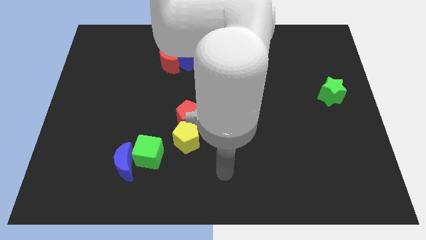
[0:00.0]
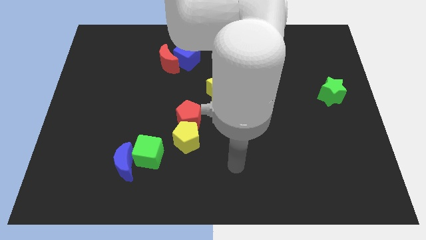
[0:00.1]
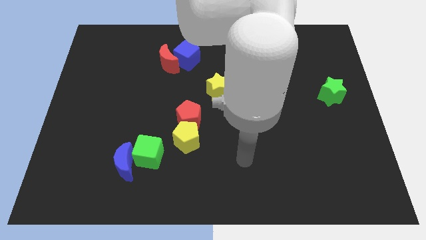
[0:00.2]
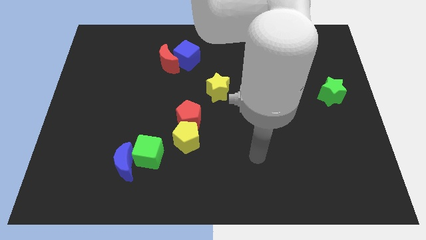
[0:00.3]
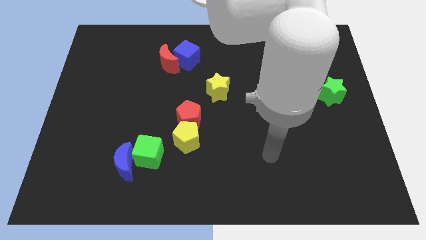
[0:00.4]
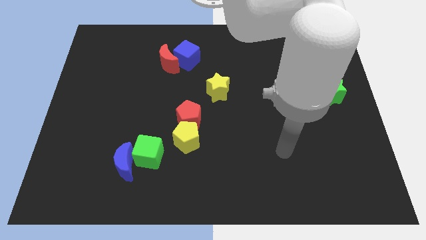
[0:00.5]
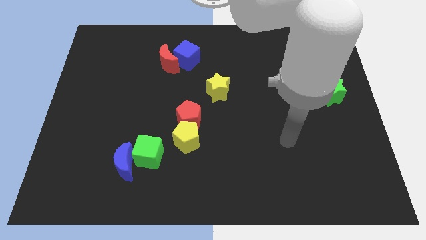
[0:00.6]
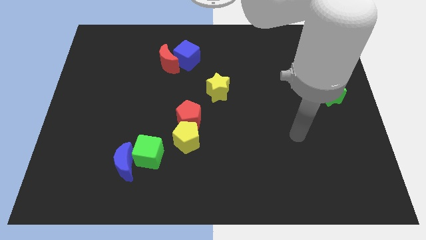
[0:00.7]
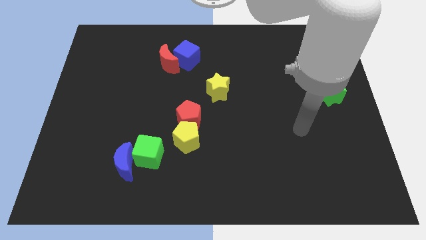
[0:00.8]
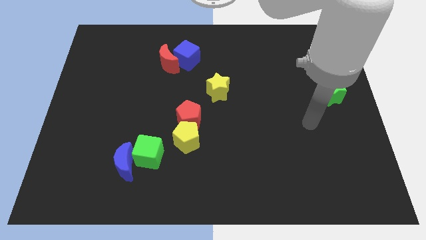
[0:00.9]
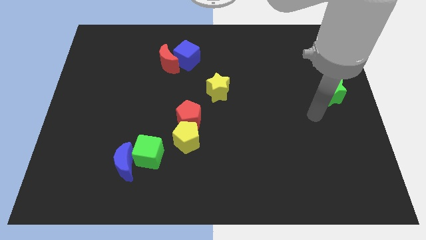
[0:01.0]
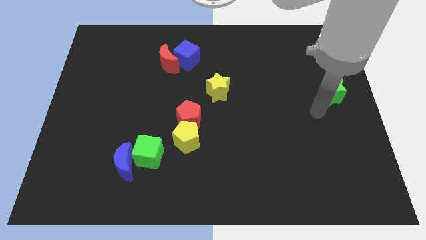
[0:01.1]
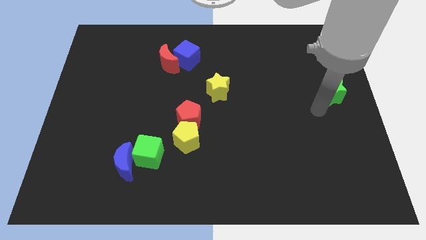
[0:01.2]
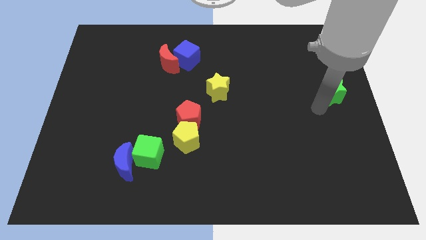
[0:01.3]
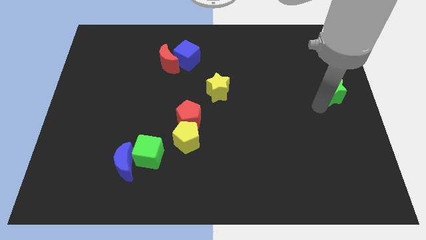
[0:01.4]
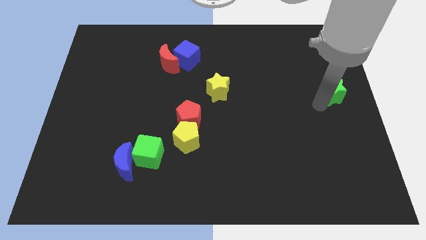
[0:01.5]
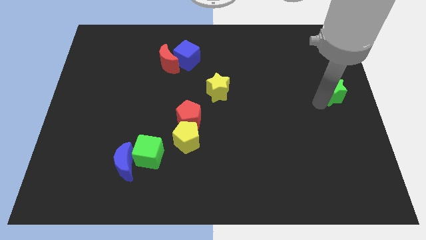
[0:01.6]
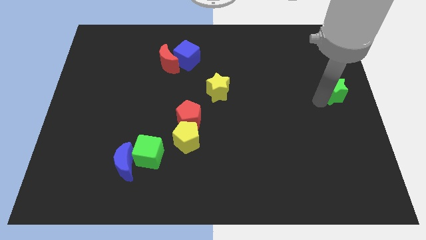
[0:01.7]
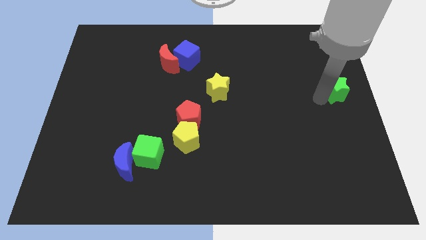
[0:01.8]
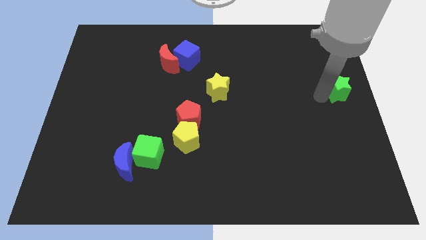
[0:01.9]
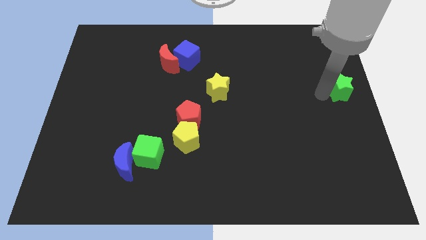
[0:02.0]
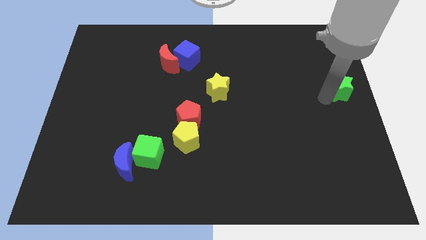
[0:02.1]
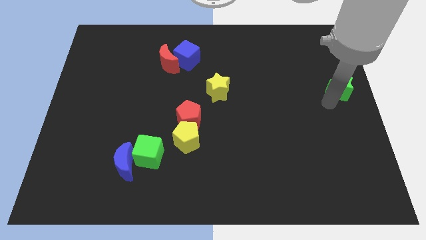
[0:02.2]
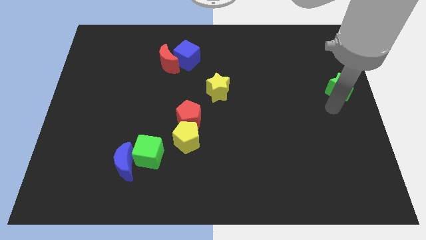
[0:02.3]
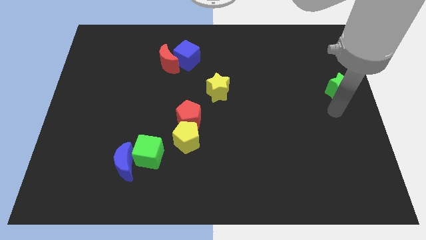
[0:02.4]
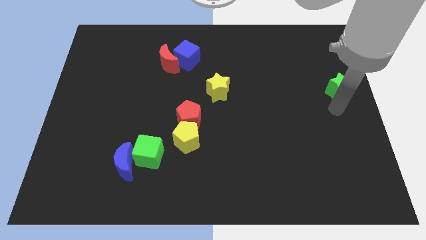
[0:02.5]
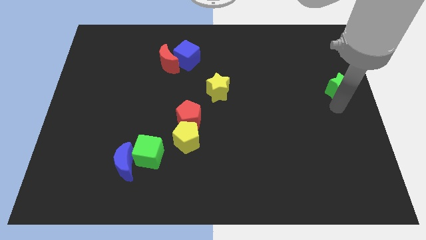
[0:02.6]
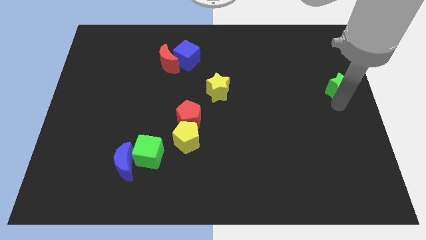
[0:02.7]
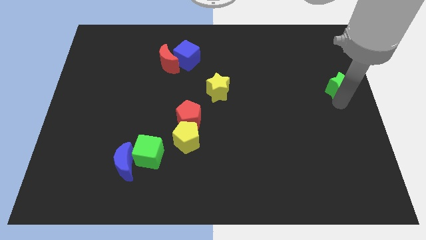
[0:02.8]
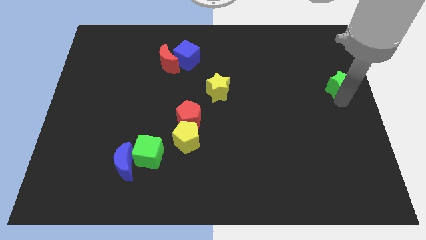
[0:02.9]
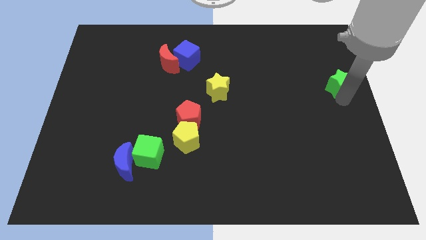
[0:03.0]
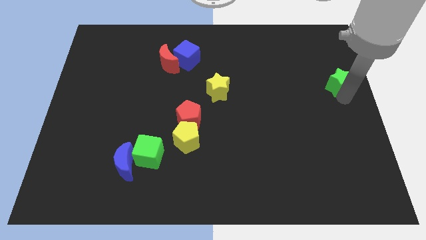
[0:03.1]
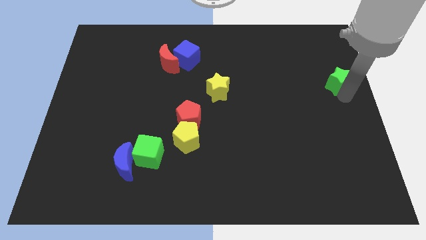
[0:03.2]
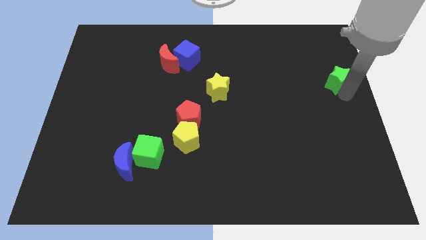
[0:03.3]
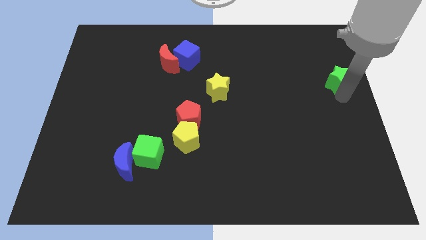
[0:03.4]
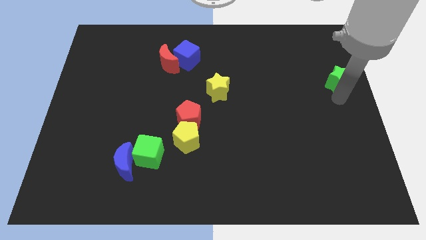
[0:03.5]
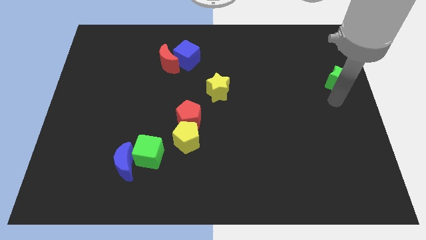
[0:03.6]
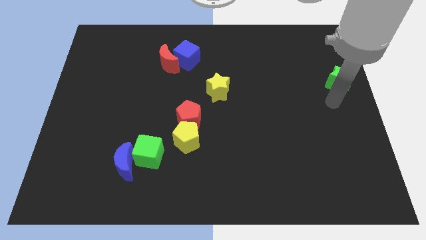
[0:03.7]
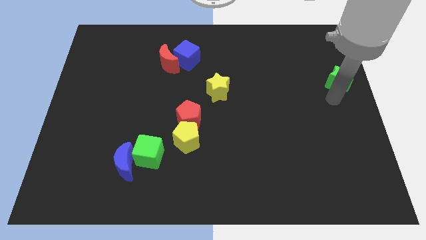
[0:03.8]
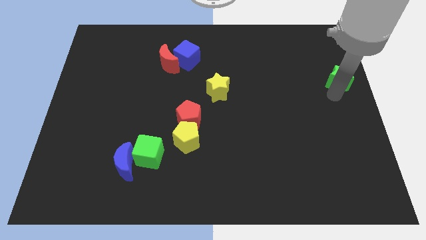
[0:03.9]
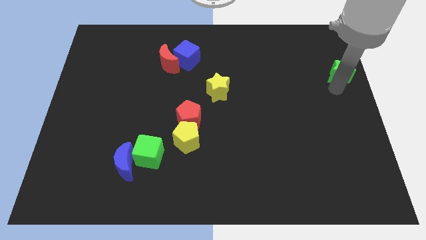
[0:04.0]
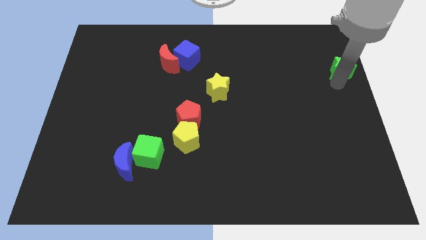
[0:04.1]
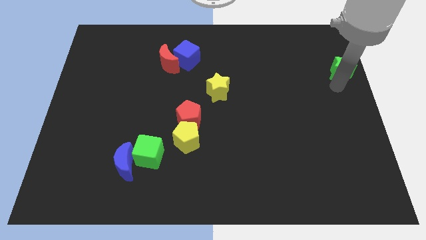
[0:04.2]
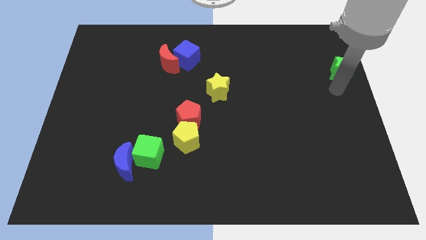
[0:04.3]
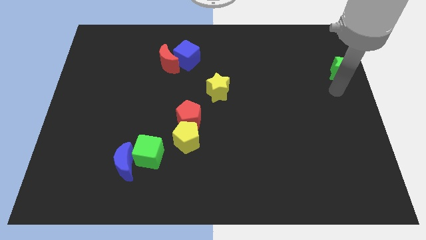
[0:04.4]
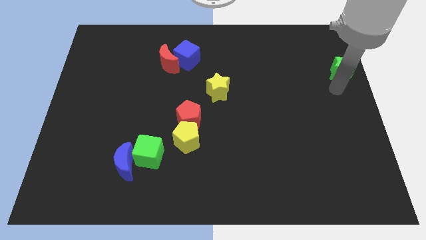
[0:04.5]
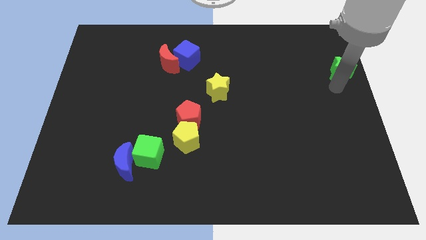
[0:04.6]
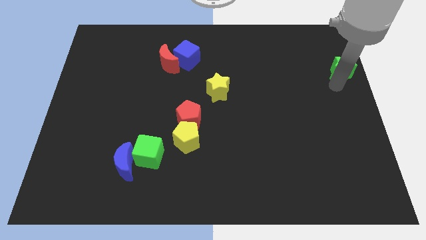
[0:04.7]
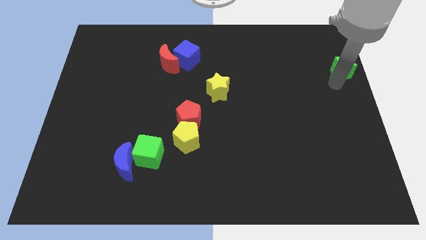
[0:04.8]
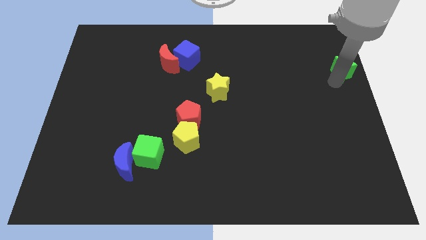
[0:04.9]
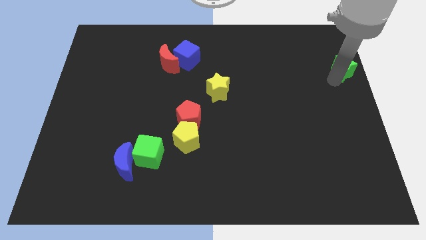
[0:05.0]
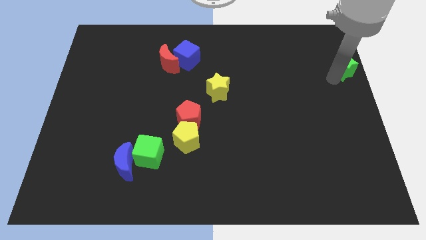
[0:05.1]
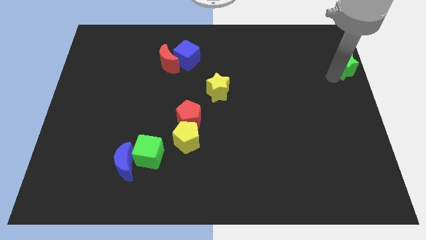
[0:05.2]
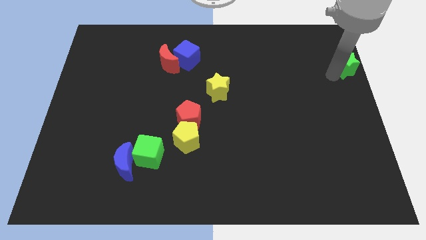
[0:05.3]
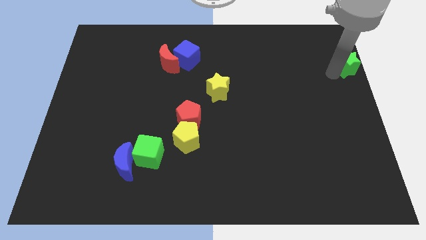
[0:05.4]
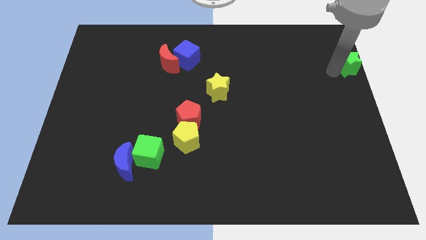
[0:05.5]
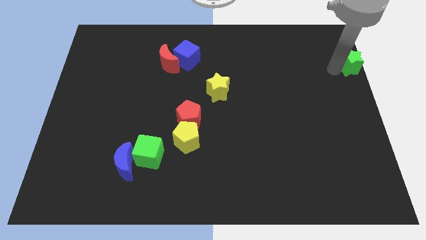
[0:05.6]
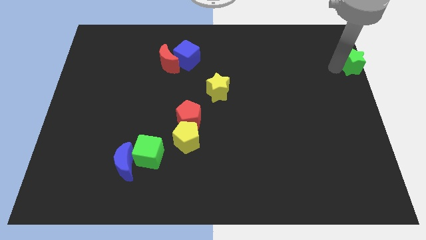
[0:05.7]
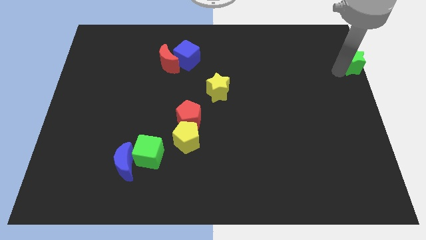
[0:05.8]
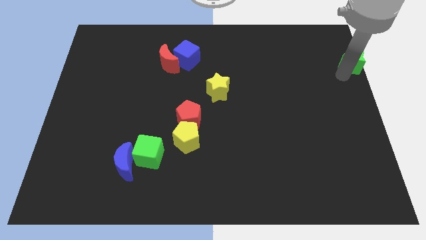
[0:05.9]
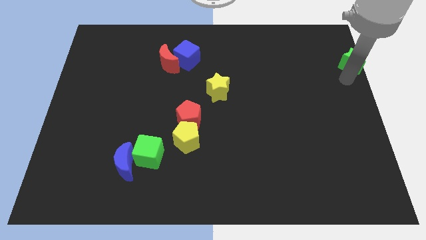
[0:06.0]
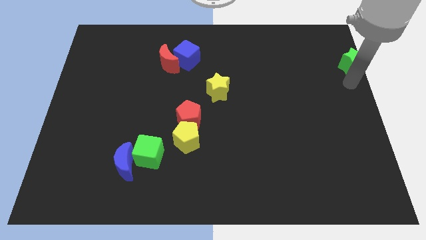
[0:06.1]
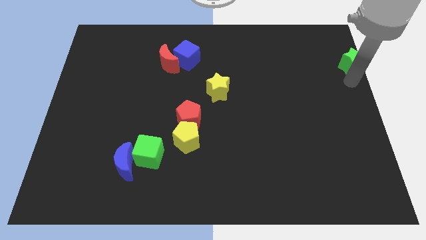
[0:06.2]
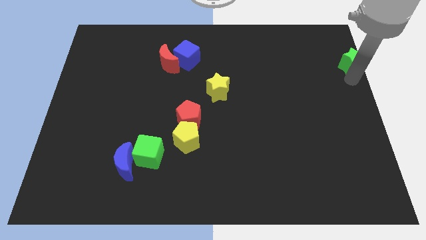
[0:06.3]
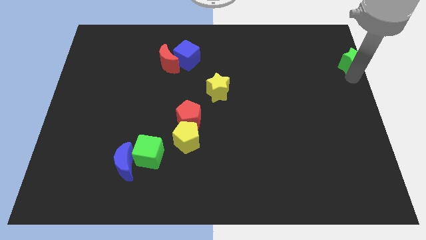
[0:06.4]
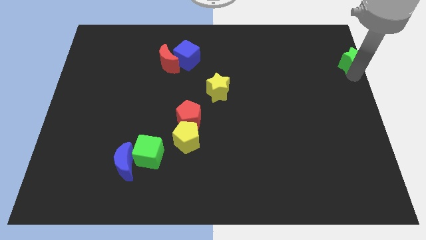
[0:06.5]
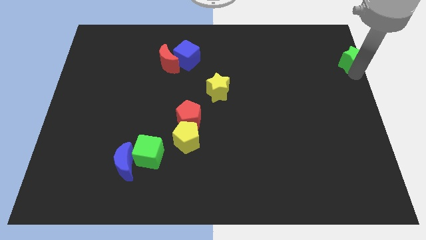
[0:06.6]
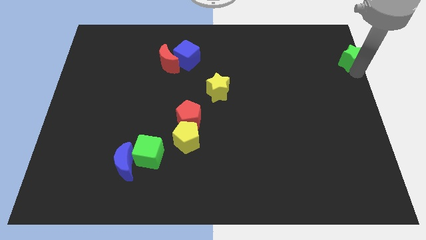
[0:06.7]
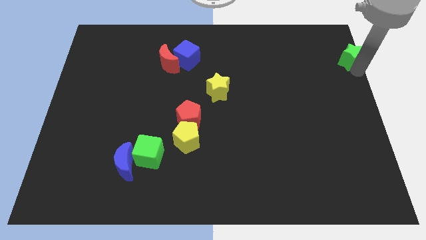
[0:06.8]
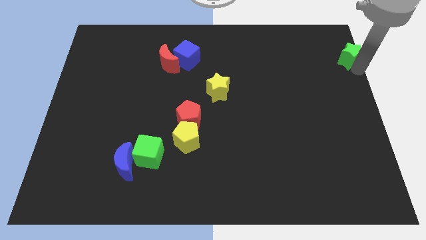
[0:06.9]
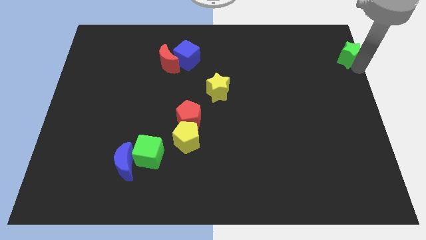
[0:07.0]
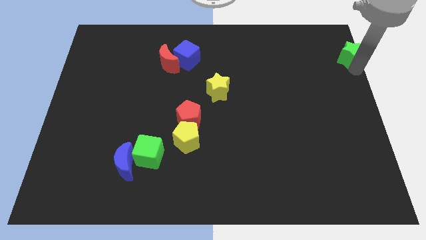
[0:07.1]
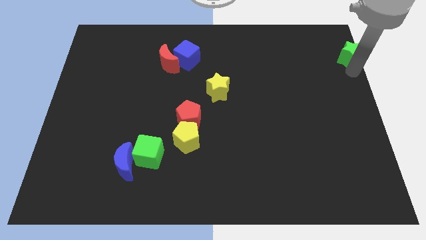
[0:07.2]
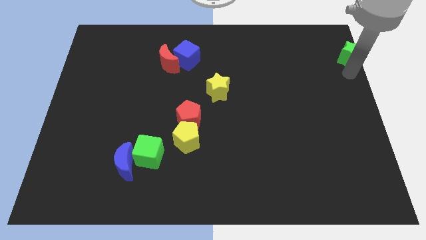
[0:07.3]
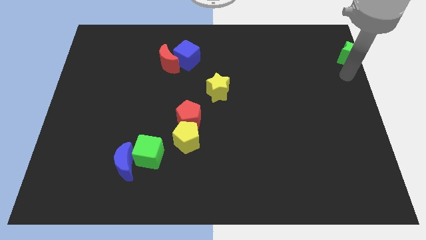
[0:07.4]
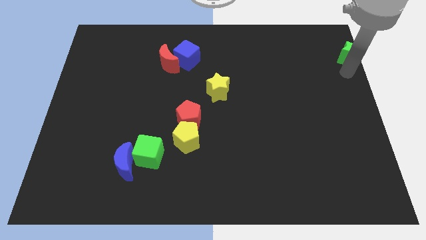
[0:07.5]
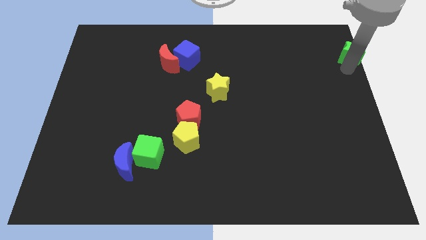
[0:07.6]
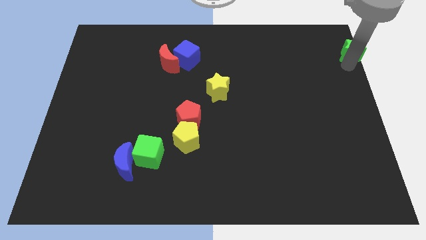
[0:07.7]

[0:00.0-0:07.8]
slide the green star to the upper right corner
